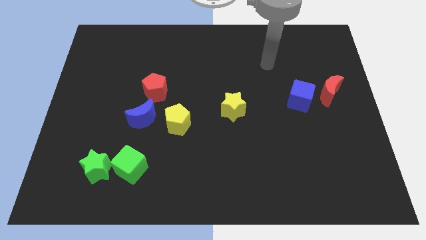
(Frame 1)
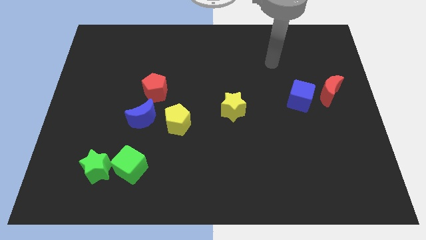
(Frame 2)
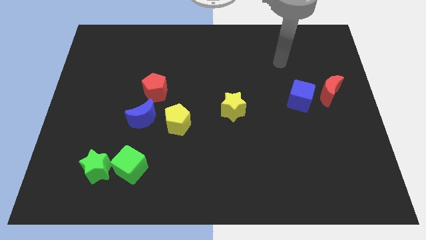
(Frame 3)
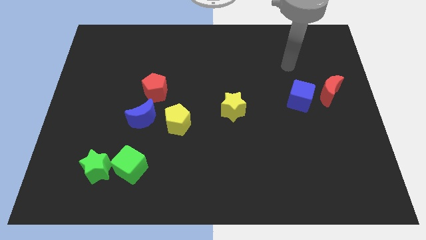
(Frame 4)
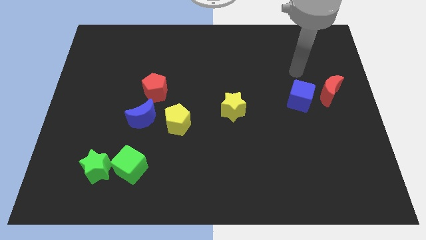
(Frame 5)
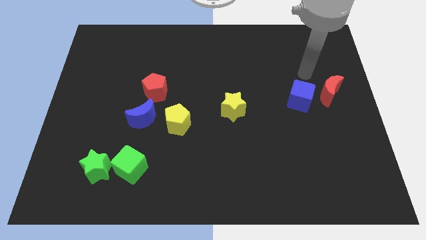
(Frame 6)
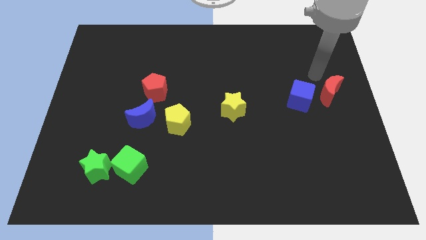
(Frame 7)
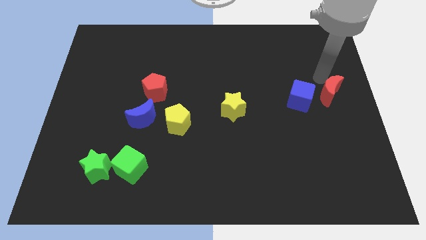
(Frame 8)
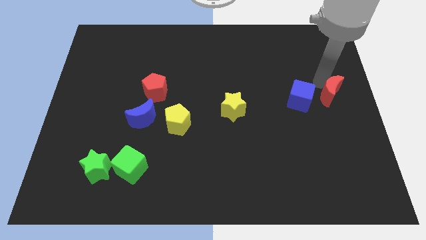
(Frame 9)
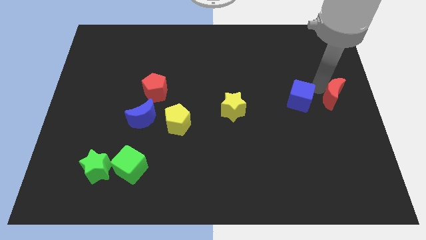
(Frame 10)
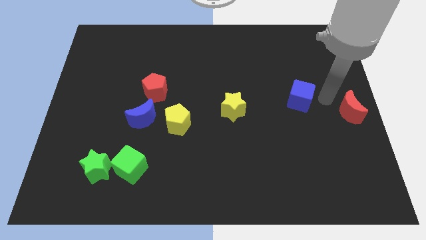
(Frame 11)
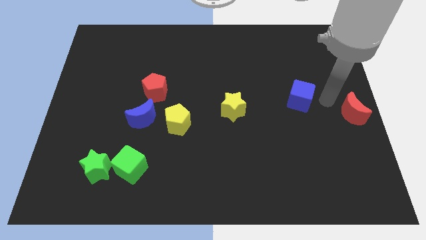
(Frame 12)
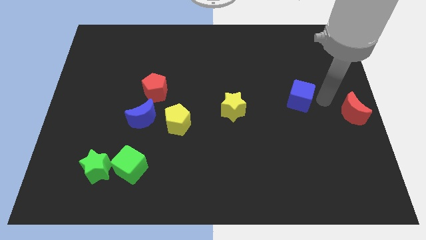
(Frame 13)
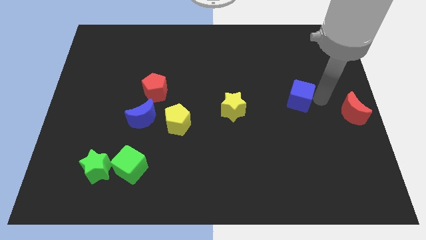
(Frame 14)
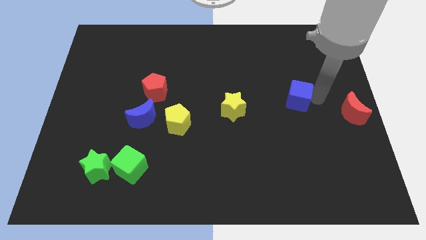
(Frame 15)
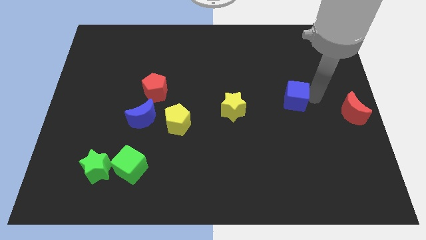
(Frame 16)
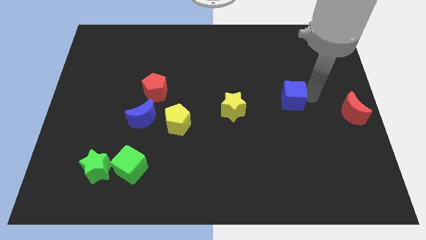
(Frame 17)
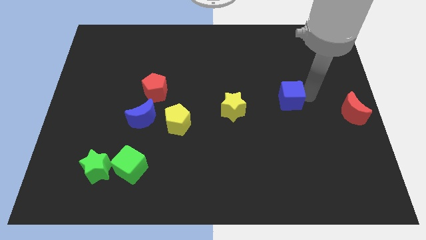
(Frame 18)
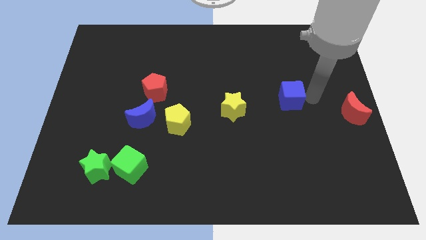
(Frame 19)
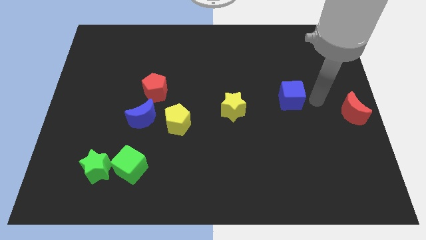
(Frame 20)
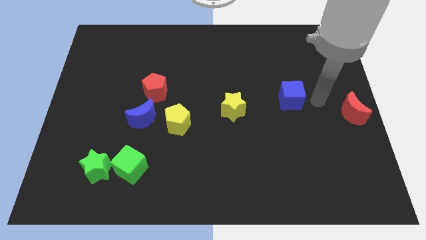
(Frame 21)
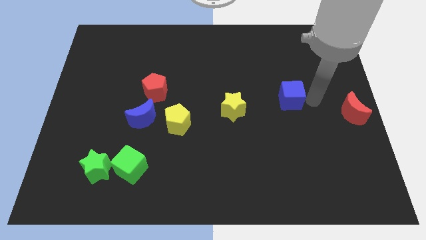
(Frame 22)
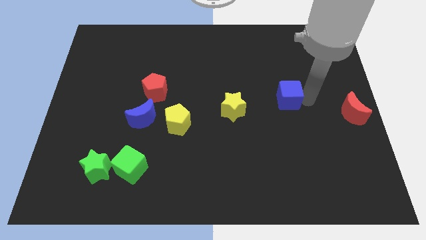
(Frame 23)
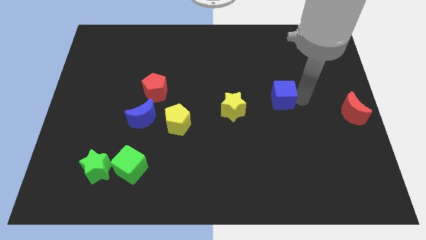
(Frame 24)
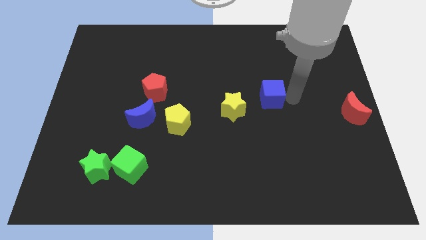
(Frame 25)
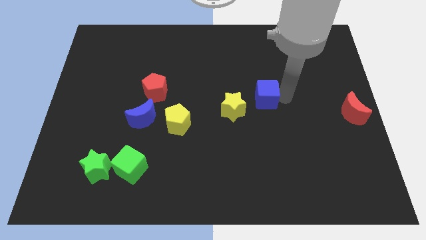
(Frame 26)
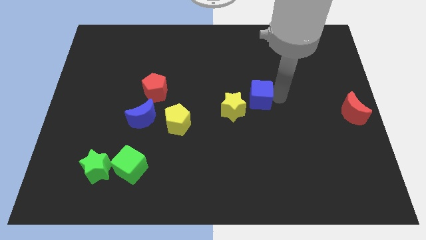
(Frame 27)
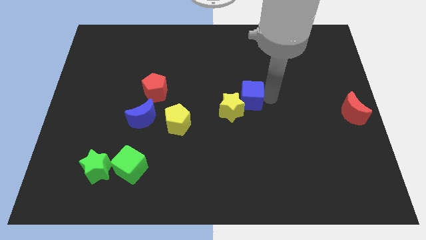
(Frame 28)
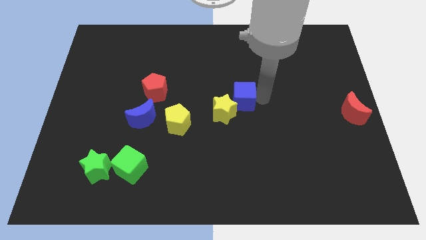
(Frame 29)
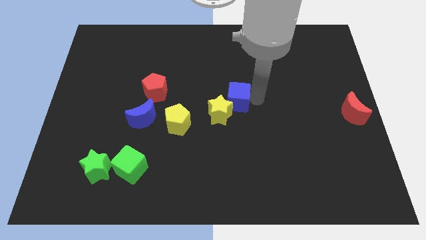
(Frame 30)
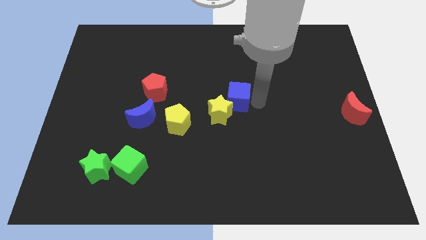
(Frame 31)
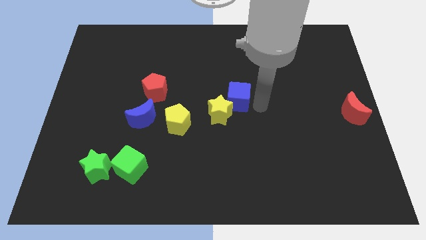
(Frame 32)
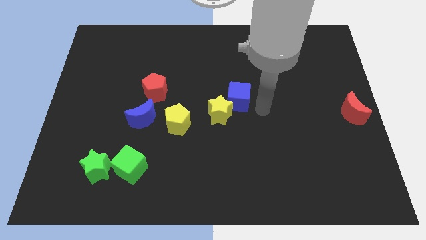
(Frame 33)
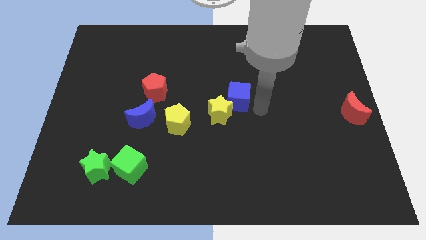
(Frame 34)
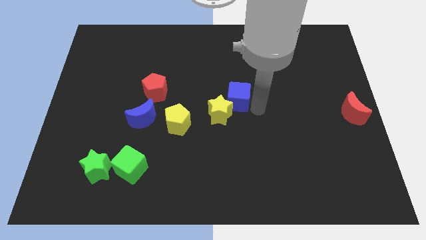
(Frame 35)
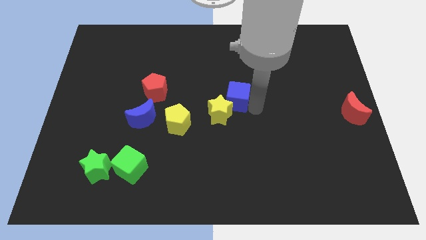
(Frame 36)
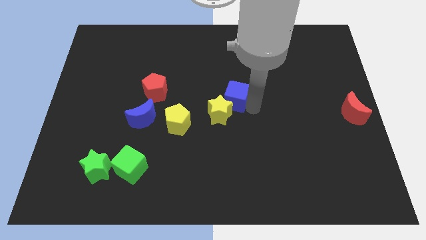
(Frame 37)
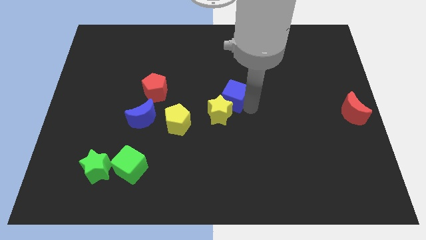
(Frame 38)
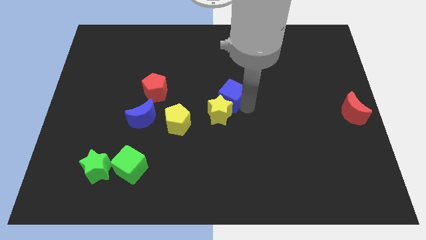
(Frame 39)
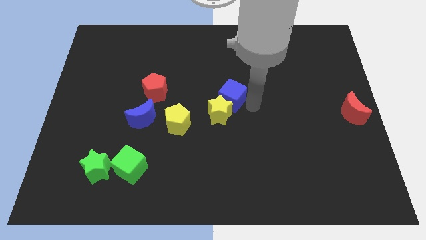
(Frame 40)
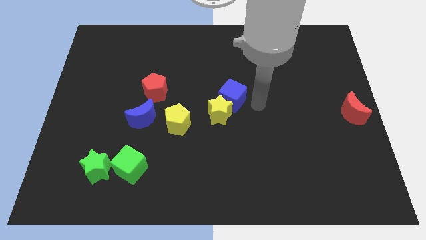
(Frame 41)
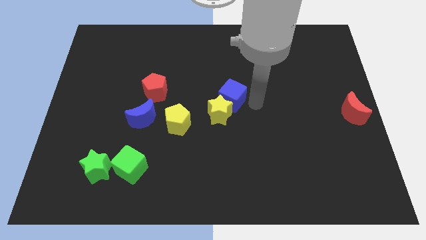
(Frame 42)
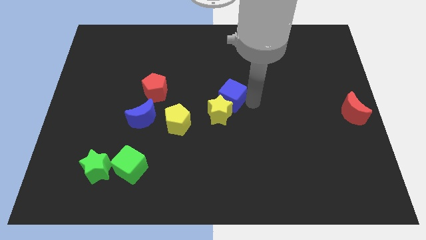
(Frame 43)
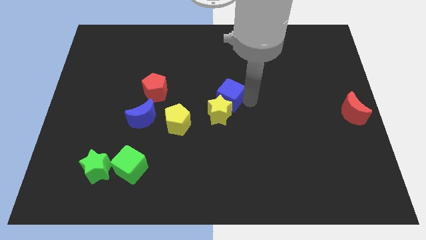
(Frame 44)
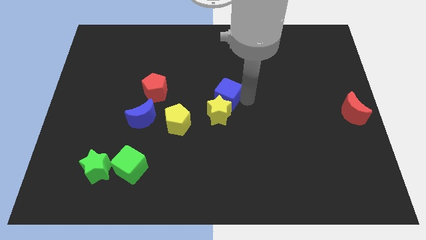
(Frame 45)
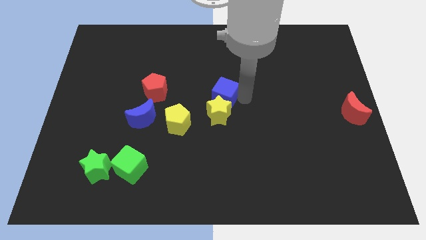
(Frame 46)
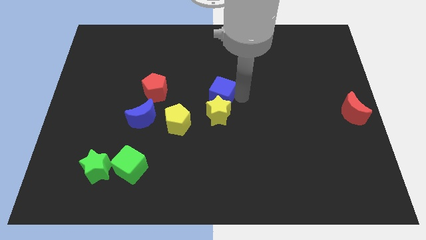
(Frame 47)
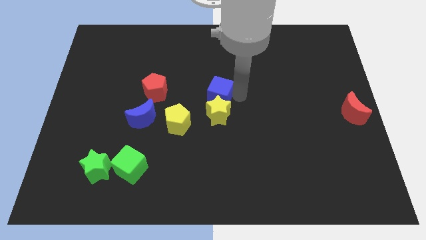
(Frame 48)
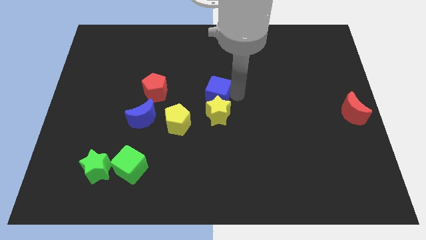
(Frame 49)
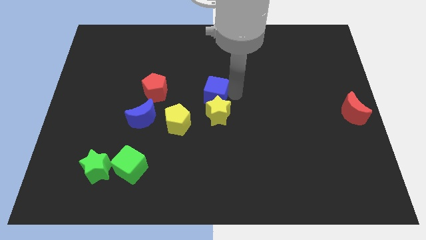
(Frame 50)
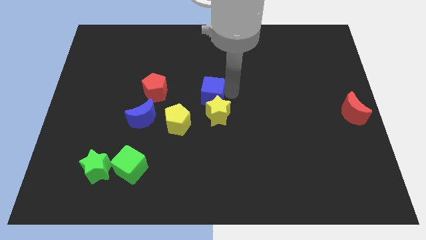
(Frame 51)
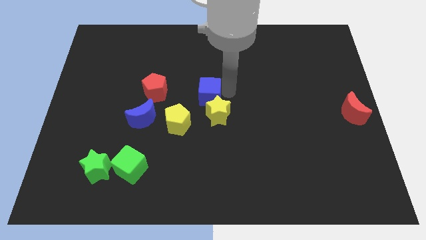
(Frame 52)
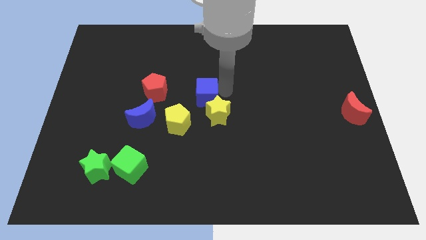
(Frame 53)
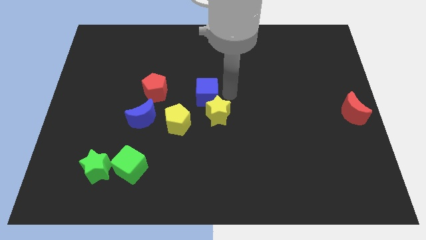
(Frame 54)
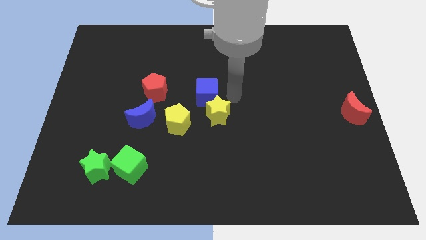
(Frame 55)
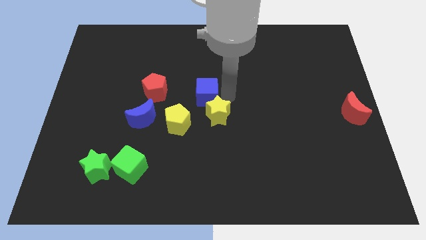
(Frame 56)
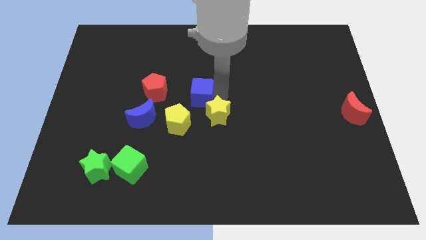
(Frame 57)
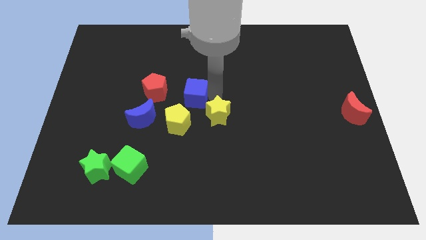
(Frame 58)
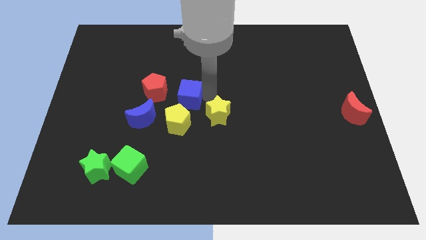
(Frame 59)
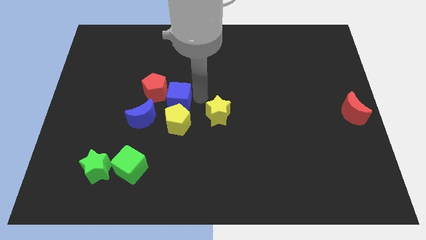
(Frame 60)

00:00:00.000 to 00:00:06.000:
push the blue cube close to the red pentagon

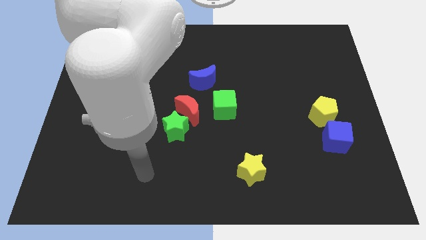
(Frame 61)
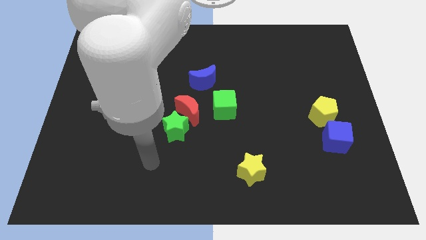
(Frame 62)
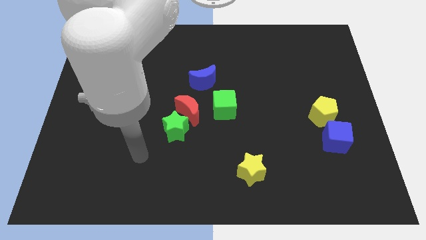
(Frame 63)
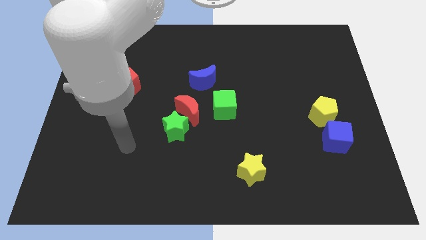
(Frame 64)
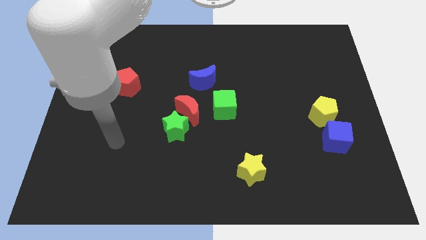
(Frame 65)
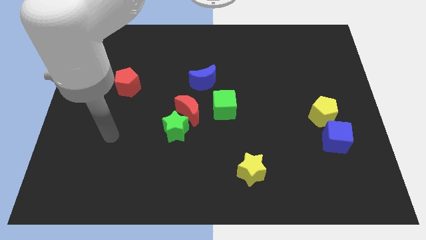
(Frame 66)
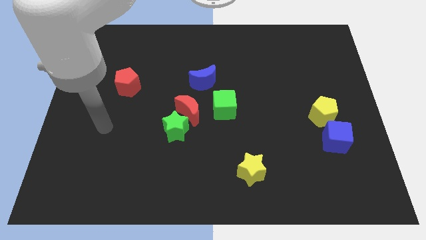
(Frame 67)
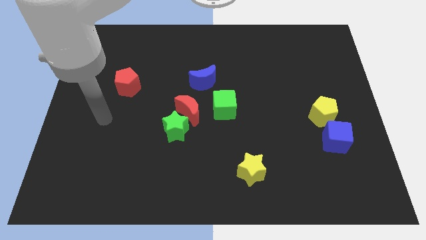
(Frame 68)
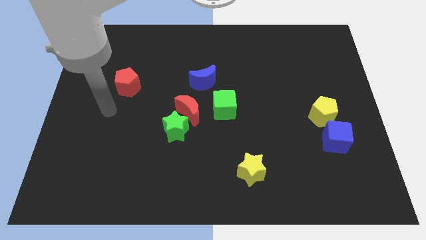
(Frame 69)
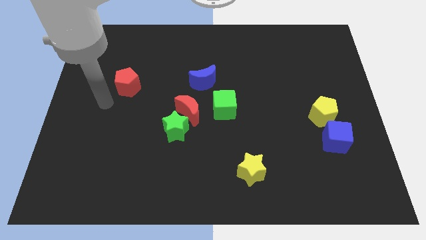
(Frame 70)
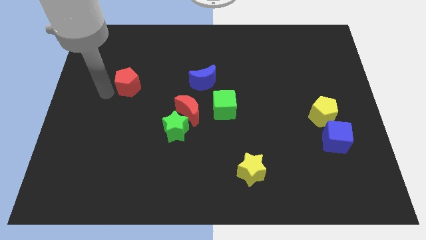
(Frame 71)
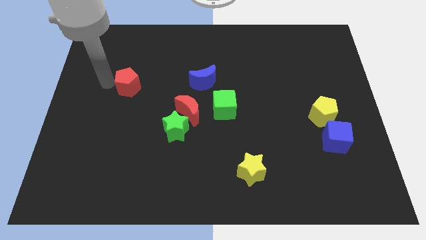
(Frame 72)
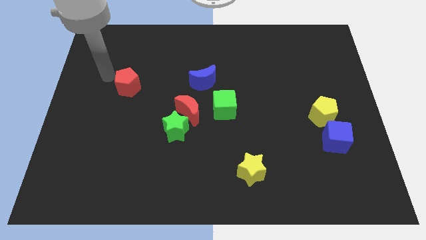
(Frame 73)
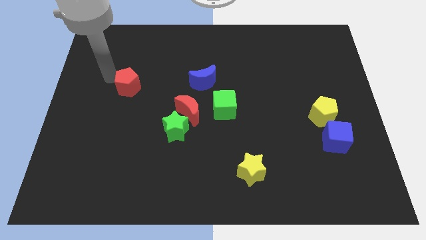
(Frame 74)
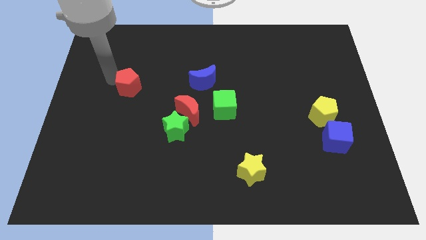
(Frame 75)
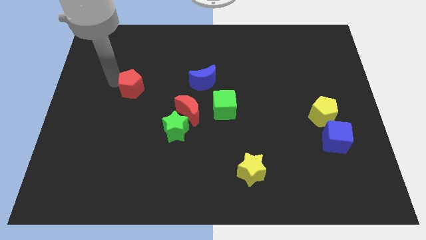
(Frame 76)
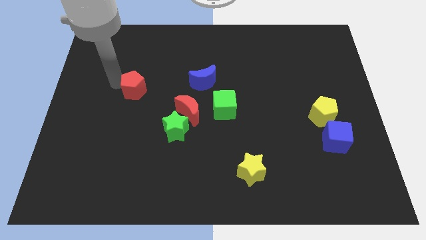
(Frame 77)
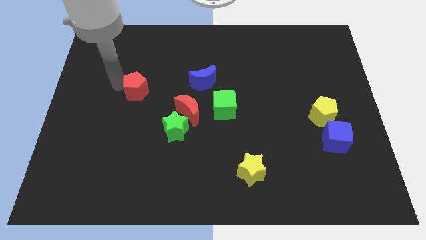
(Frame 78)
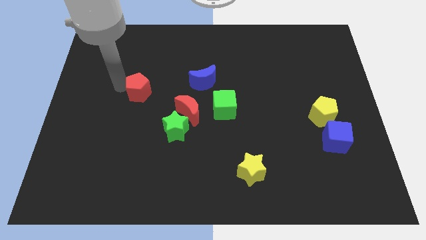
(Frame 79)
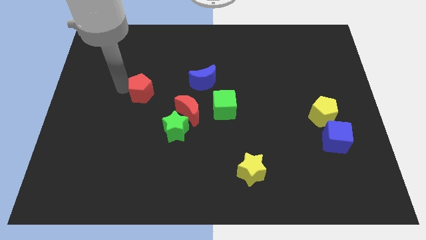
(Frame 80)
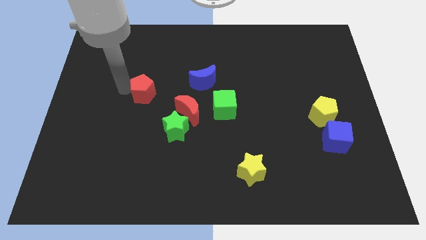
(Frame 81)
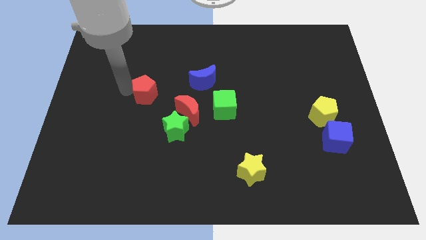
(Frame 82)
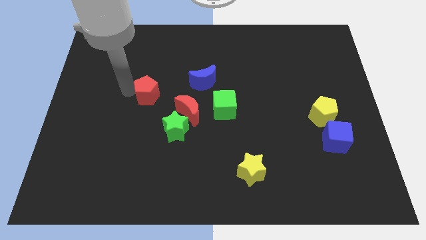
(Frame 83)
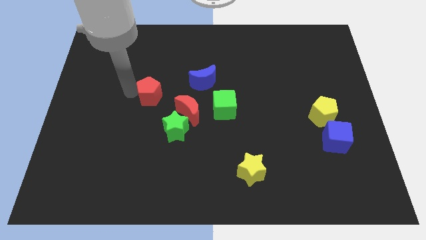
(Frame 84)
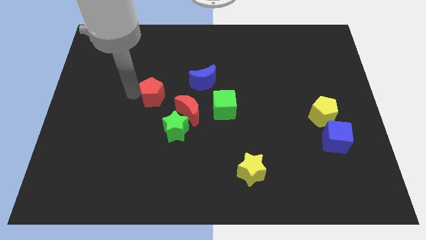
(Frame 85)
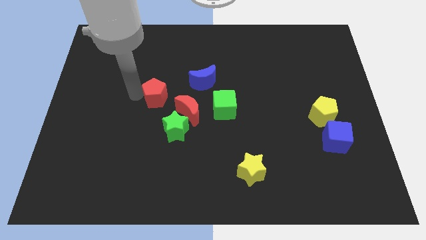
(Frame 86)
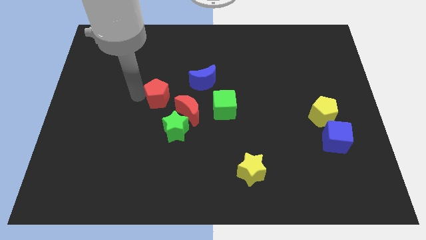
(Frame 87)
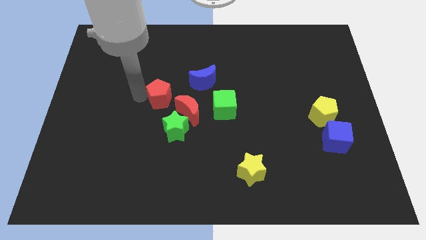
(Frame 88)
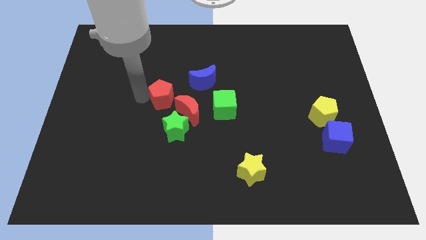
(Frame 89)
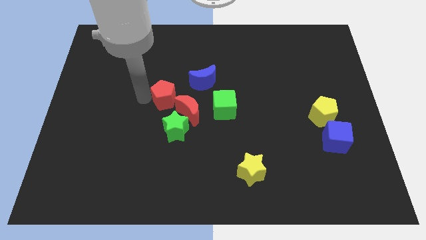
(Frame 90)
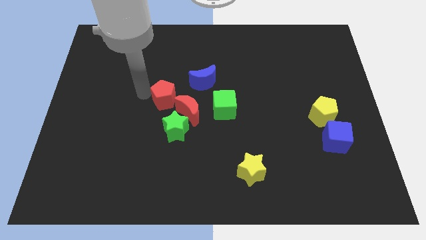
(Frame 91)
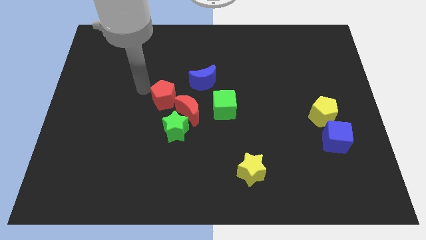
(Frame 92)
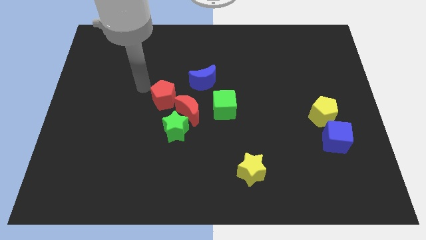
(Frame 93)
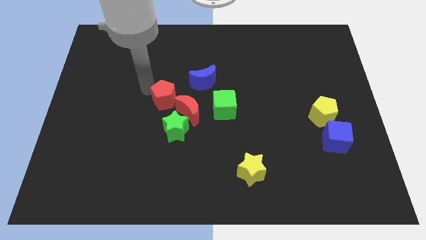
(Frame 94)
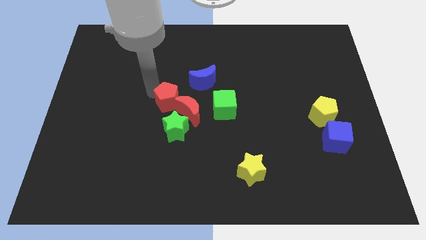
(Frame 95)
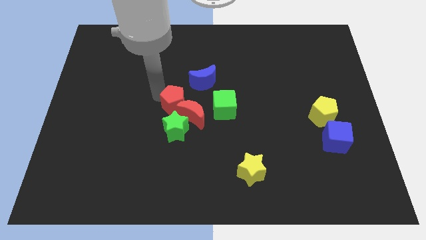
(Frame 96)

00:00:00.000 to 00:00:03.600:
push the red pentagon close to the red moon
